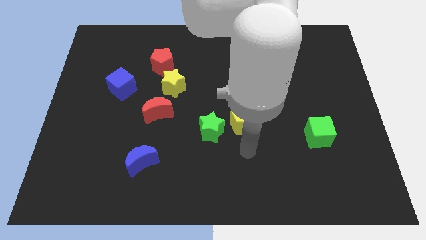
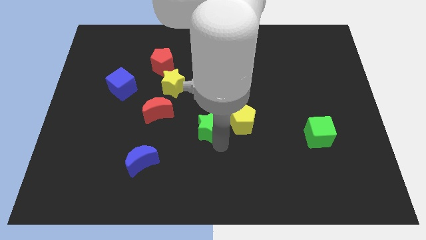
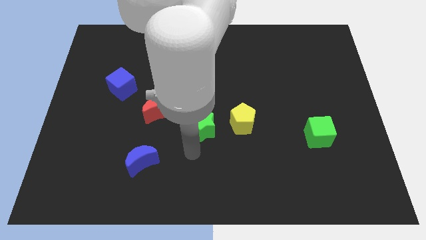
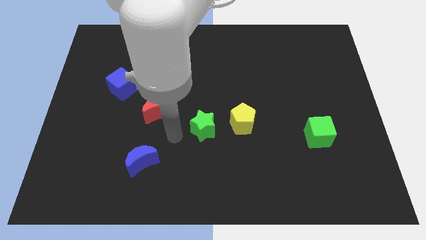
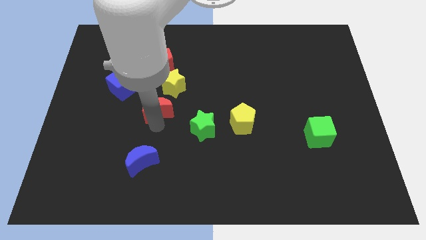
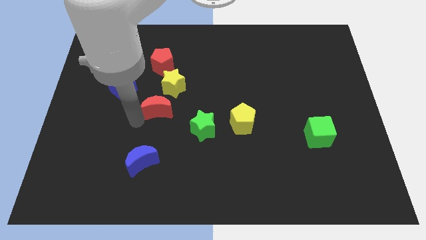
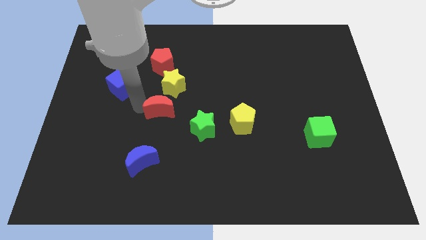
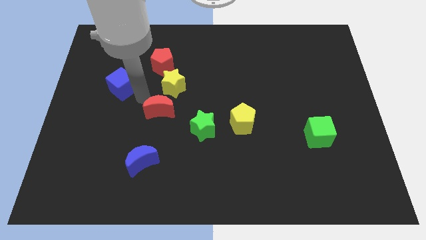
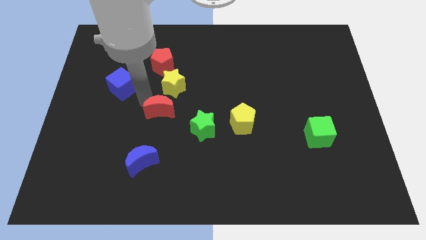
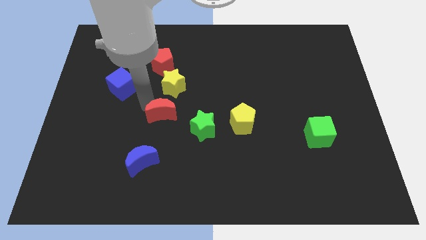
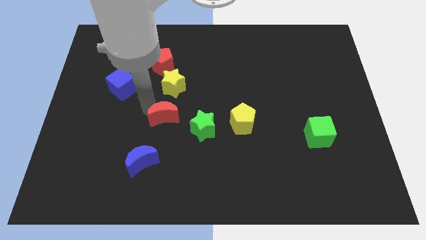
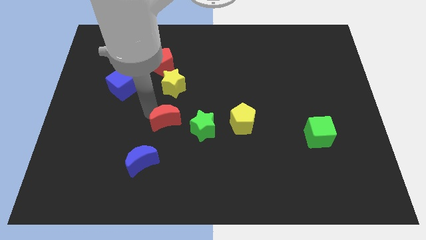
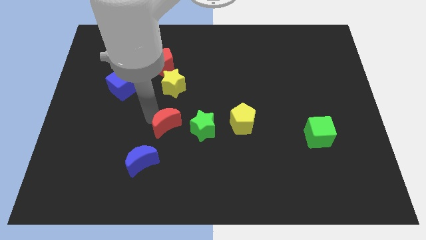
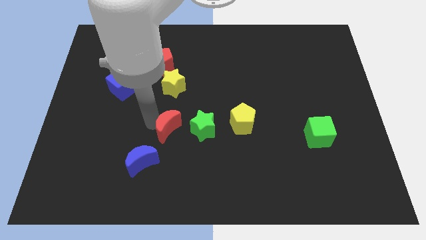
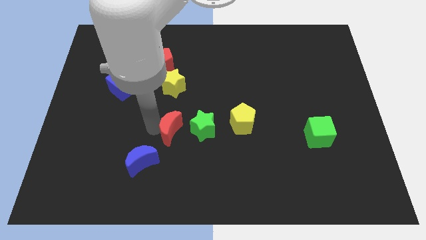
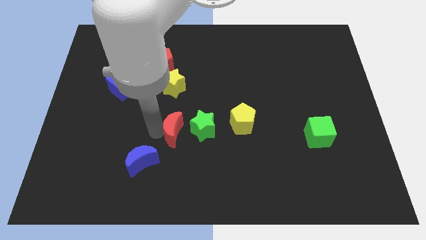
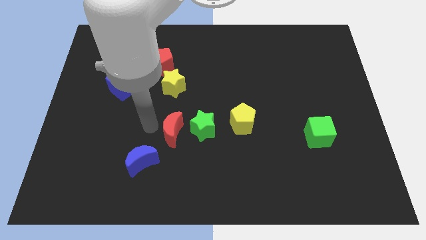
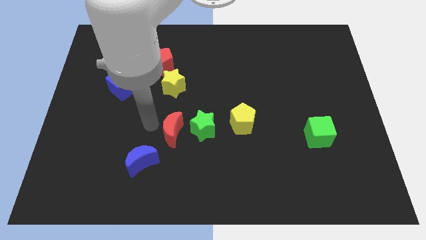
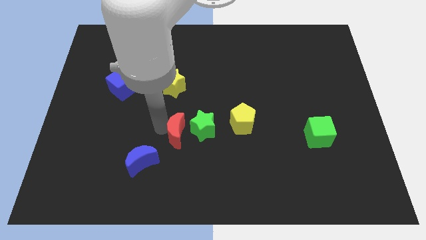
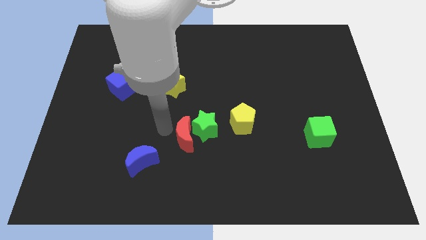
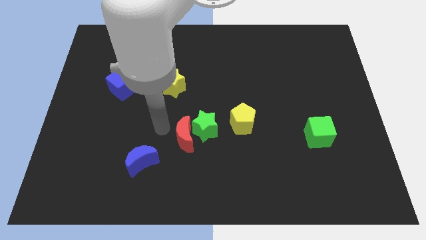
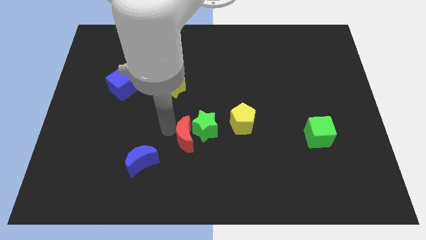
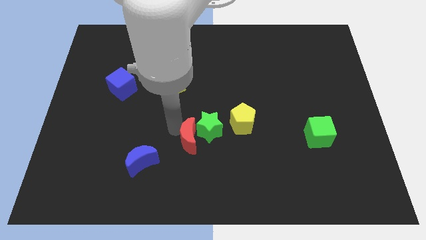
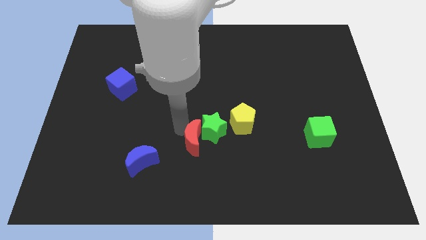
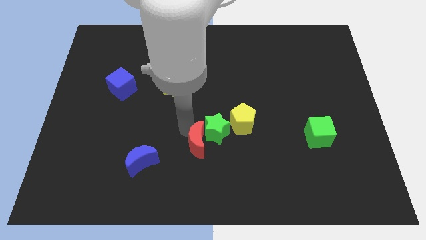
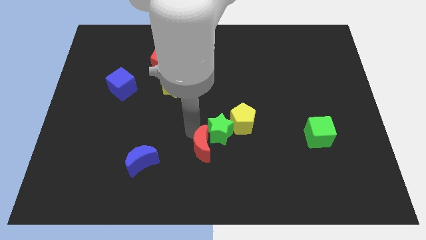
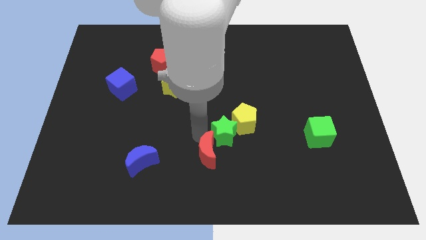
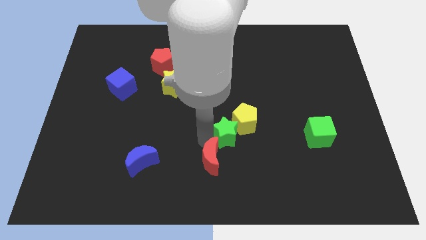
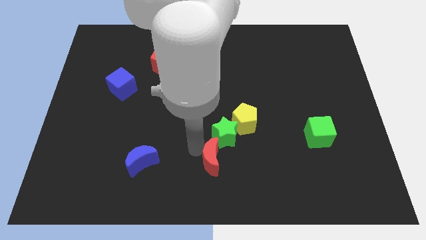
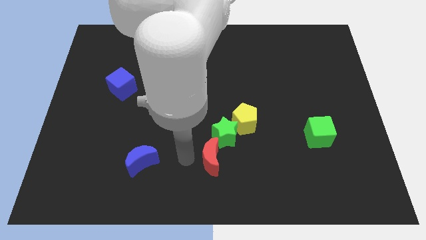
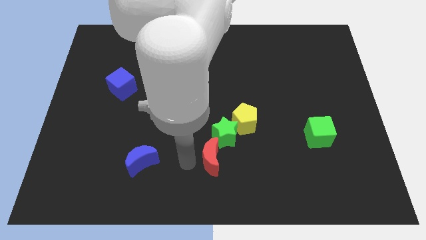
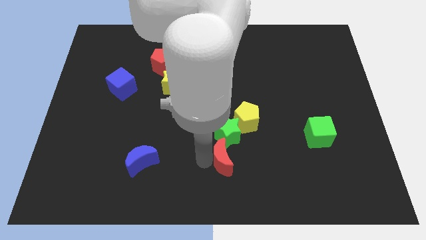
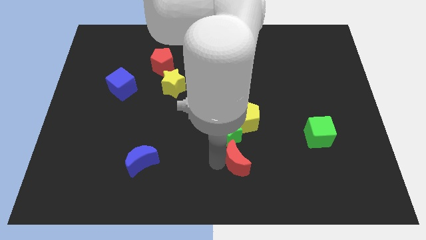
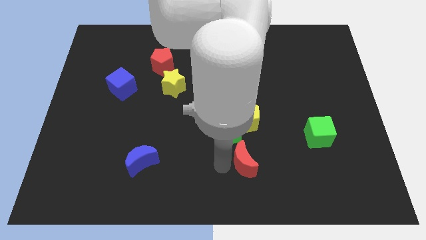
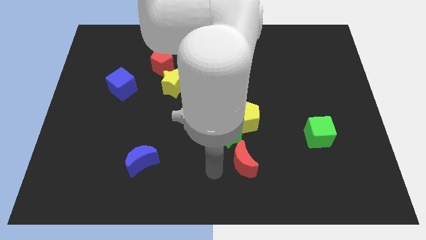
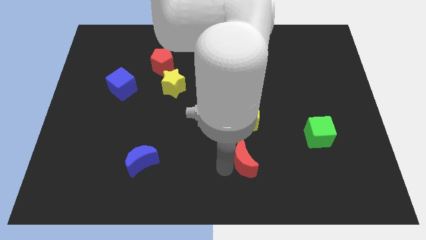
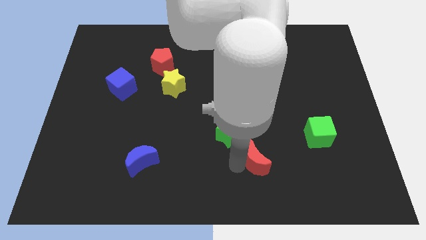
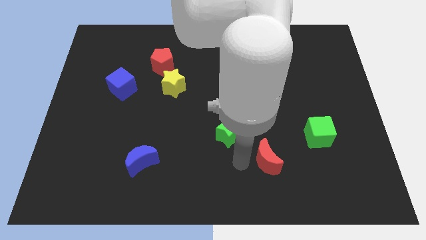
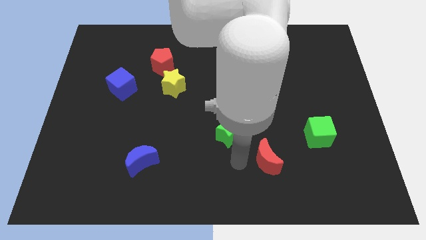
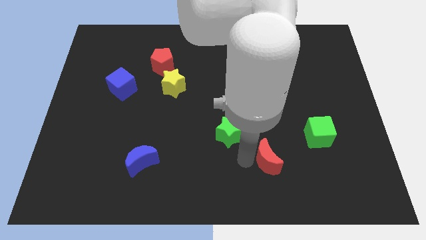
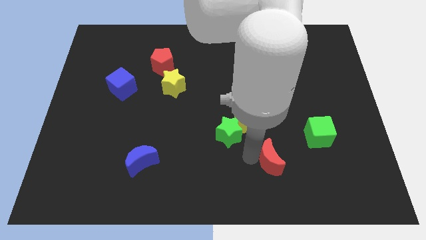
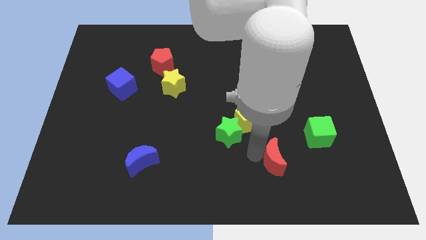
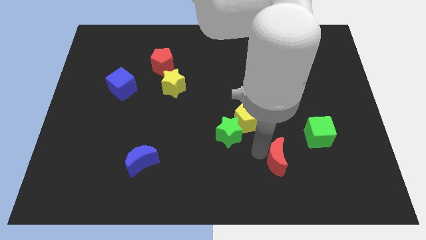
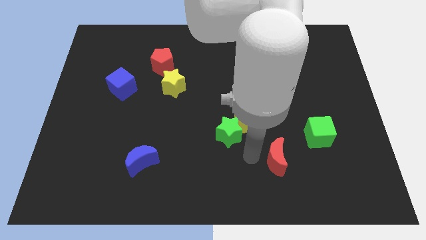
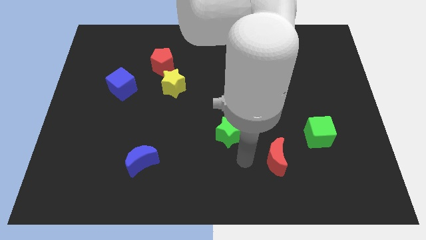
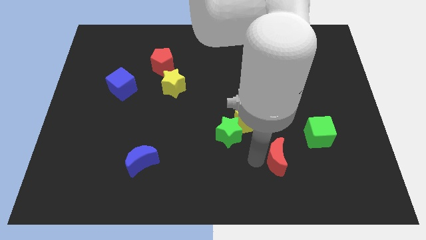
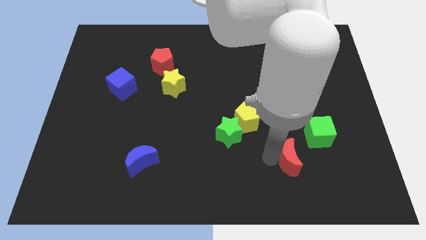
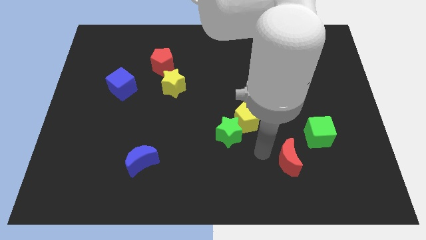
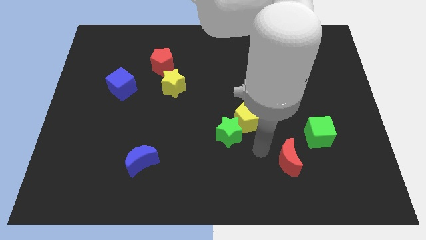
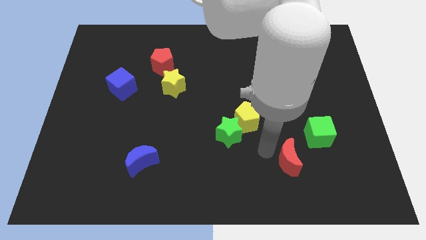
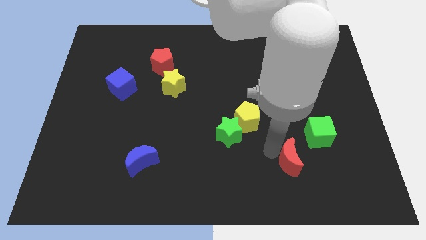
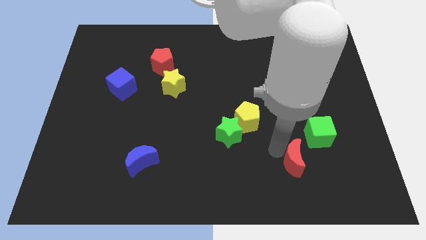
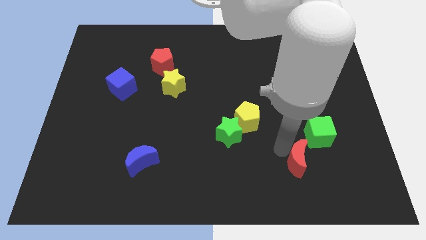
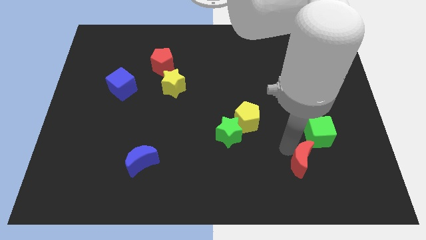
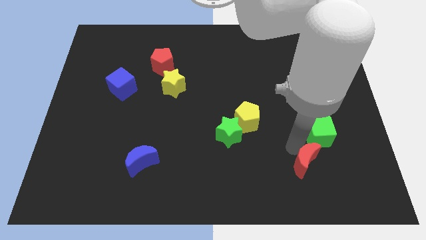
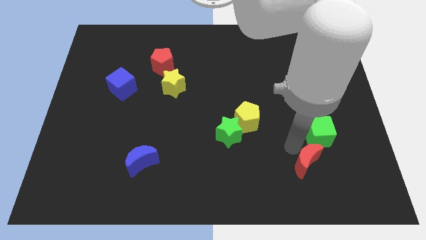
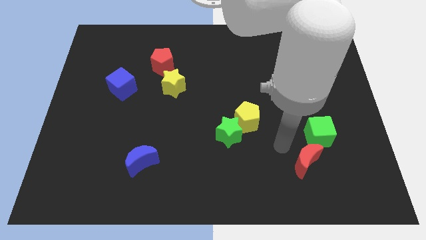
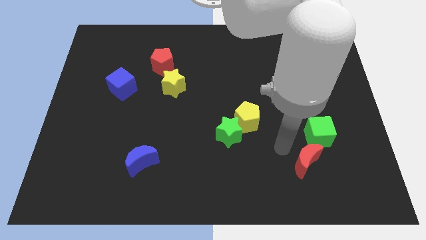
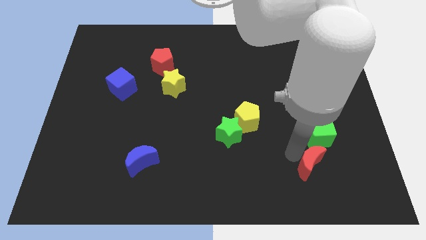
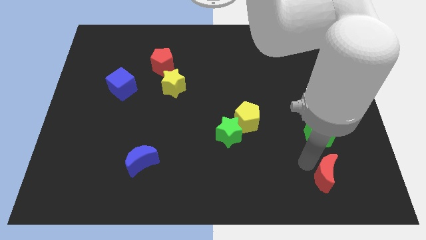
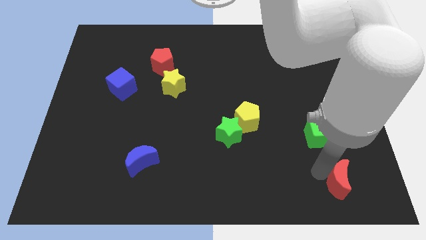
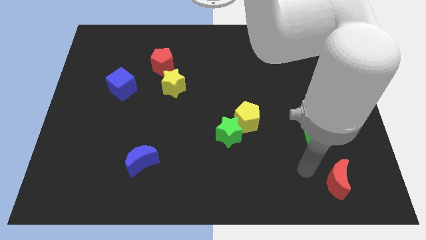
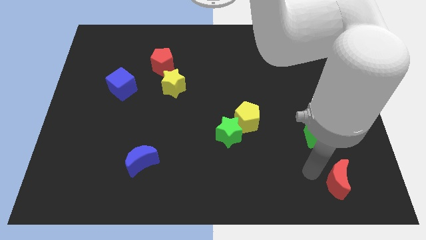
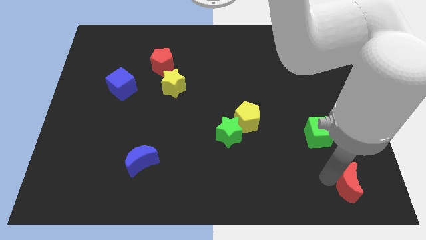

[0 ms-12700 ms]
move the red moon to the bottom right
